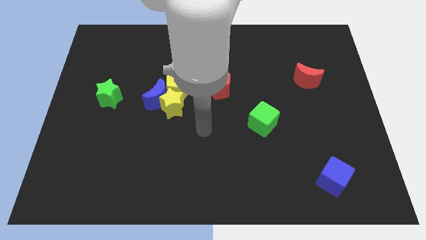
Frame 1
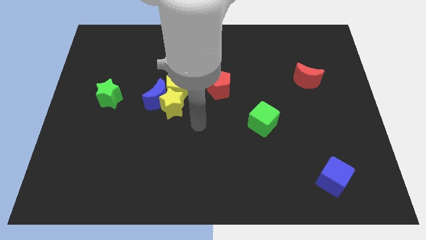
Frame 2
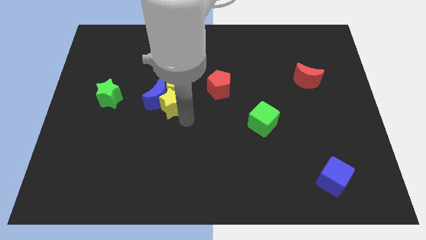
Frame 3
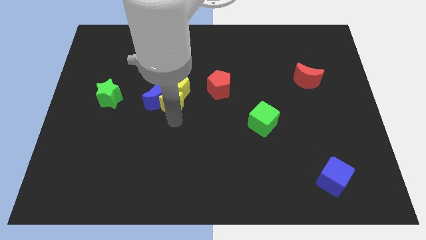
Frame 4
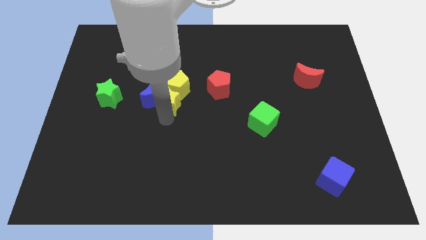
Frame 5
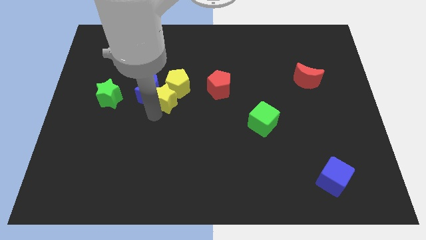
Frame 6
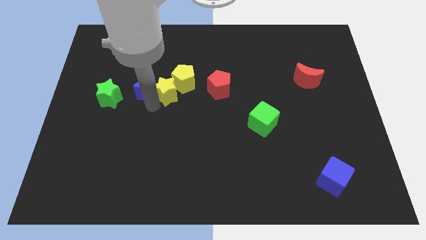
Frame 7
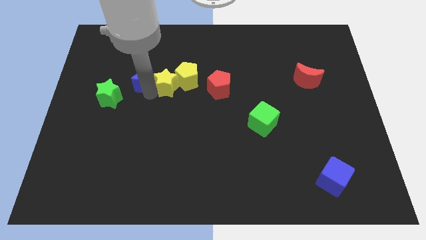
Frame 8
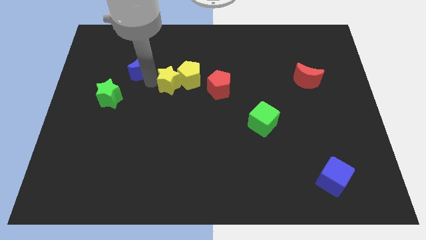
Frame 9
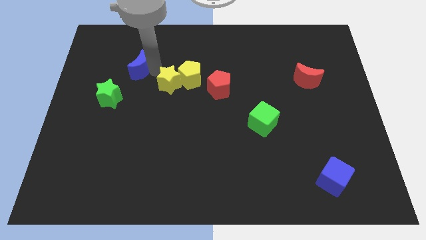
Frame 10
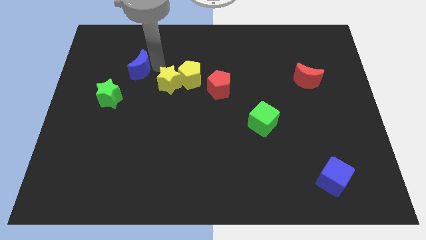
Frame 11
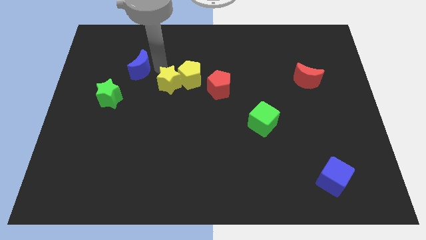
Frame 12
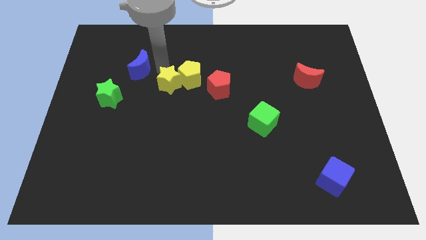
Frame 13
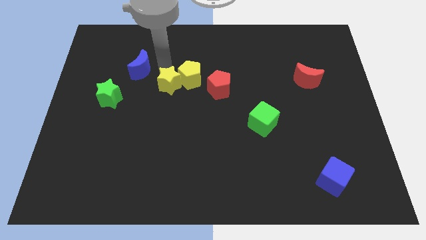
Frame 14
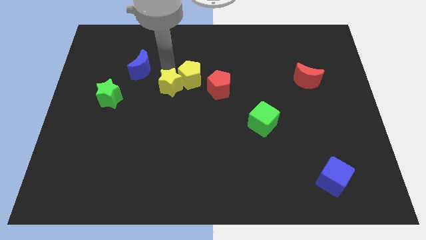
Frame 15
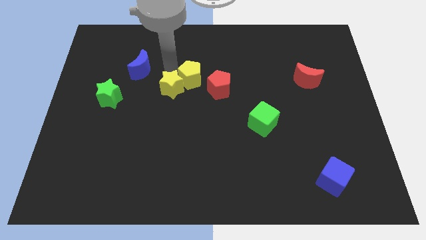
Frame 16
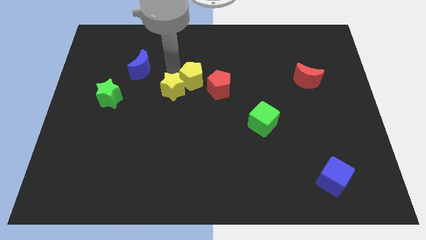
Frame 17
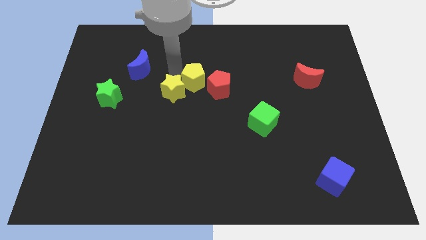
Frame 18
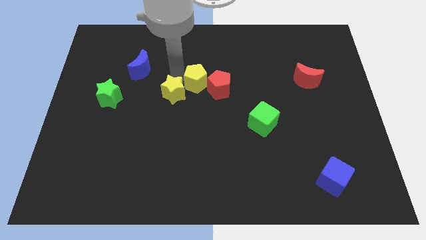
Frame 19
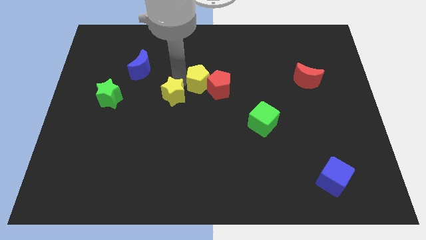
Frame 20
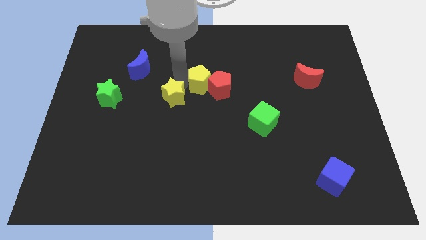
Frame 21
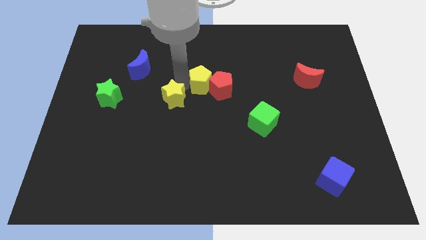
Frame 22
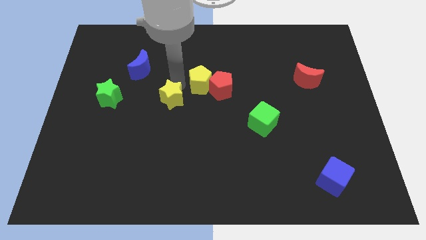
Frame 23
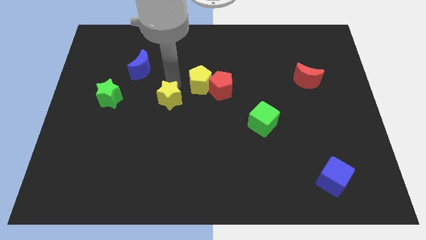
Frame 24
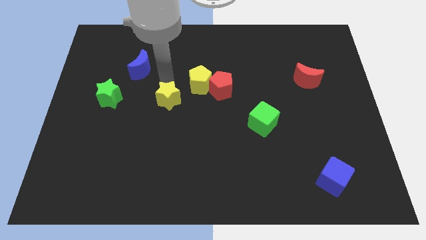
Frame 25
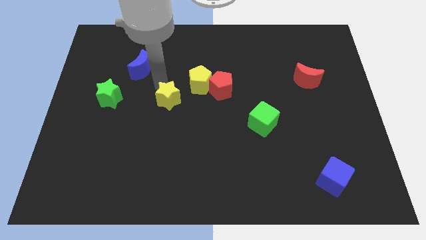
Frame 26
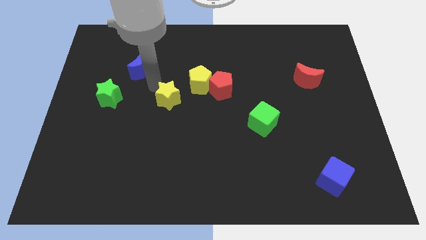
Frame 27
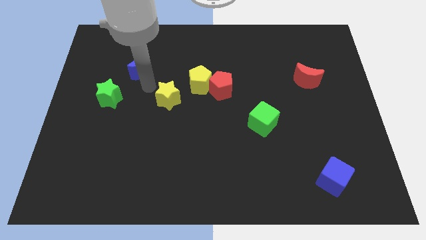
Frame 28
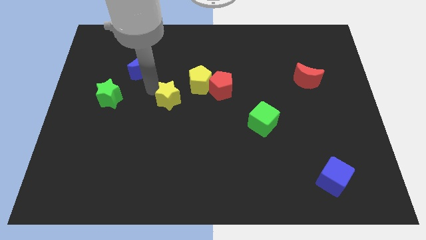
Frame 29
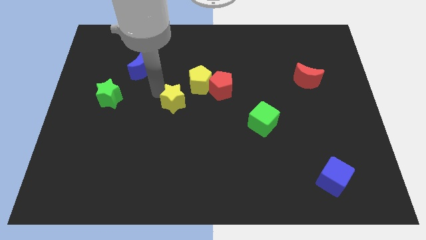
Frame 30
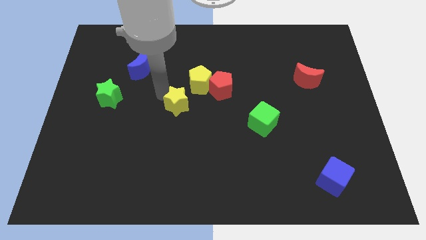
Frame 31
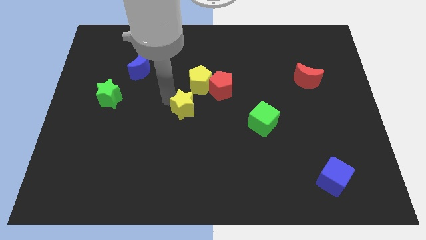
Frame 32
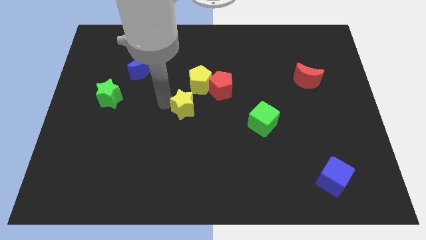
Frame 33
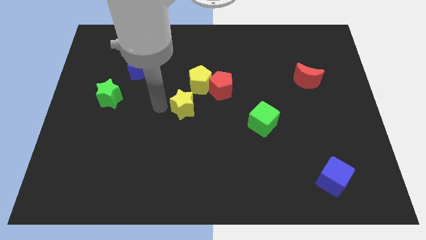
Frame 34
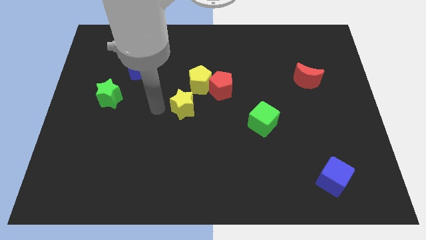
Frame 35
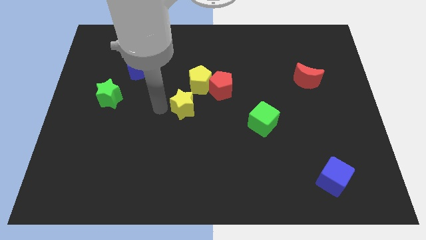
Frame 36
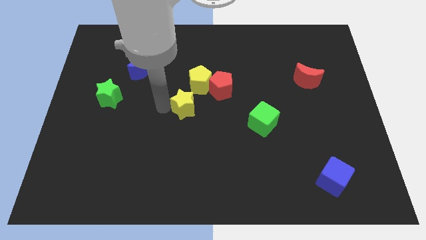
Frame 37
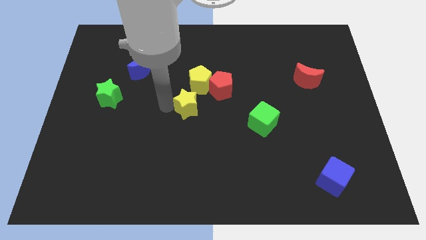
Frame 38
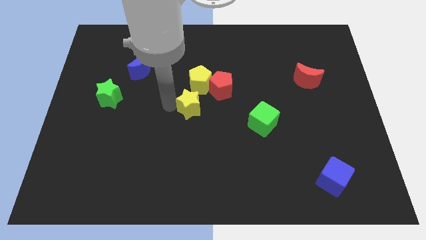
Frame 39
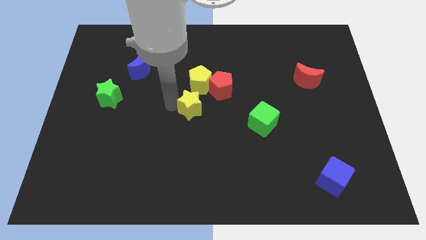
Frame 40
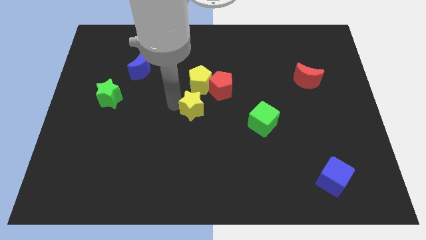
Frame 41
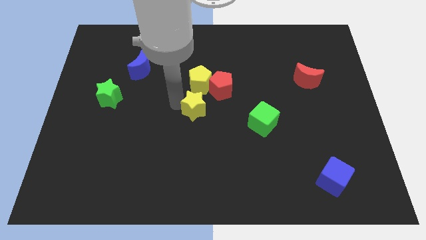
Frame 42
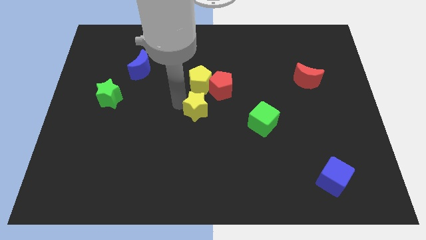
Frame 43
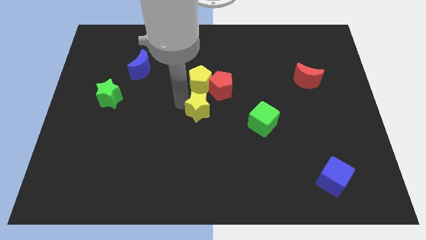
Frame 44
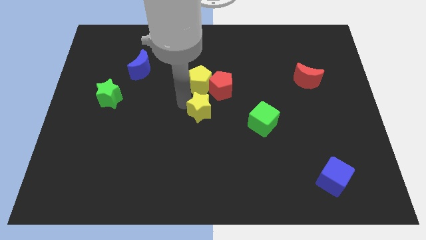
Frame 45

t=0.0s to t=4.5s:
push the yellow star right a bit

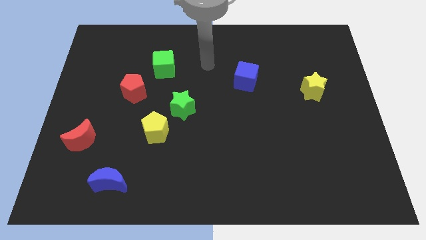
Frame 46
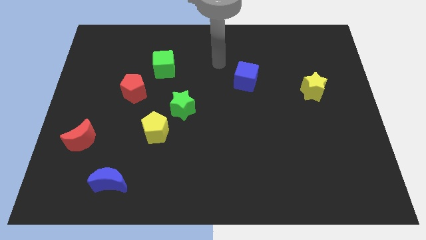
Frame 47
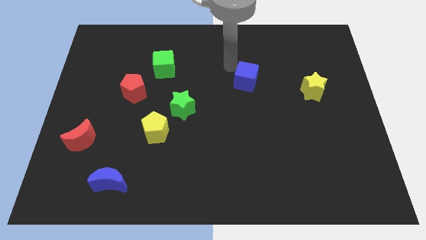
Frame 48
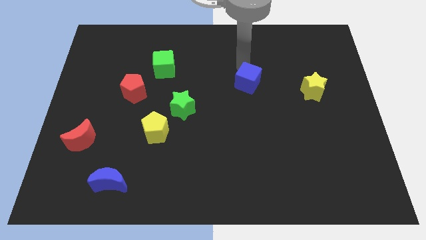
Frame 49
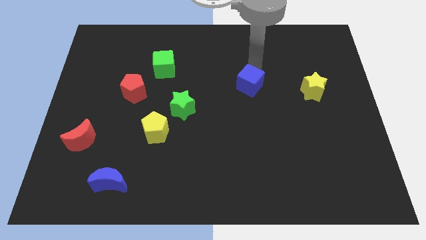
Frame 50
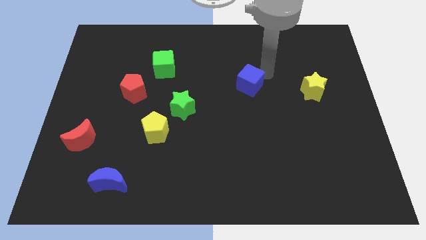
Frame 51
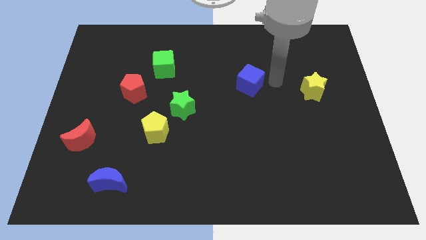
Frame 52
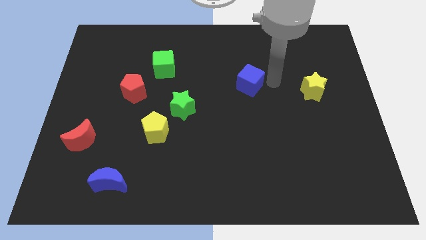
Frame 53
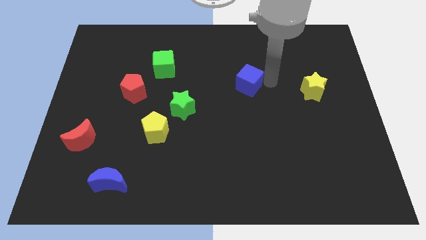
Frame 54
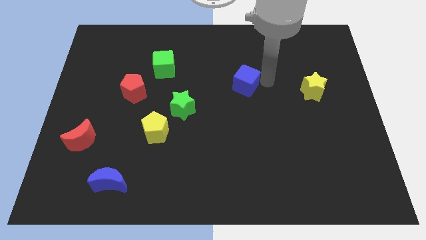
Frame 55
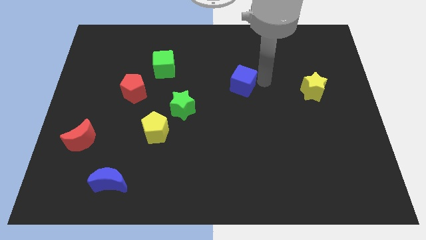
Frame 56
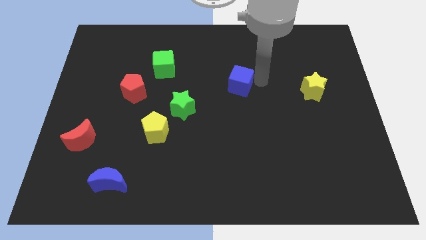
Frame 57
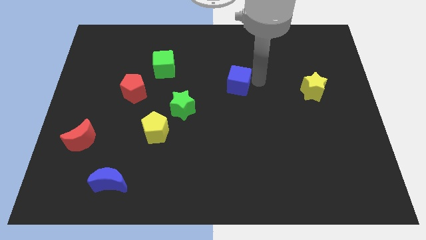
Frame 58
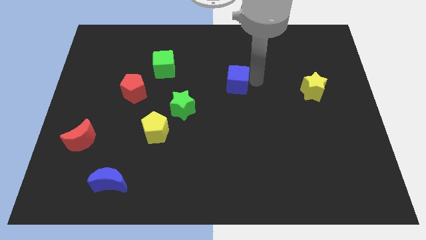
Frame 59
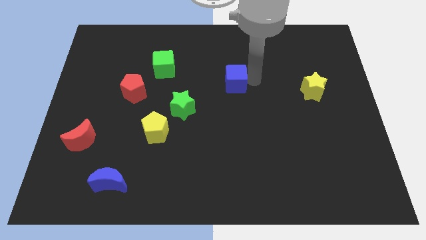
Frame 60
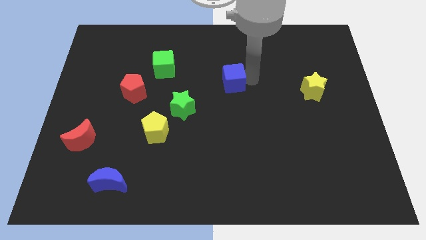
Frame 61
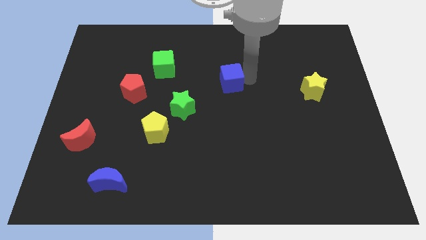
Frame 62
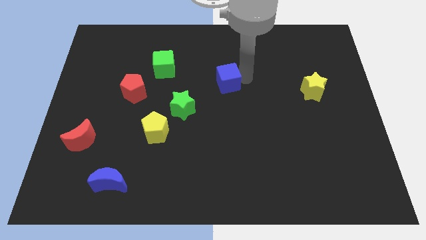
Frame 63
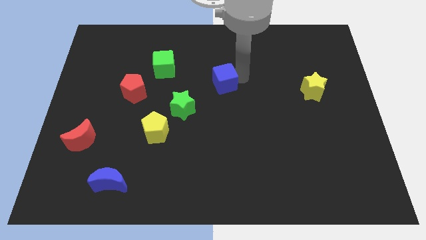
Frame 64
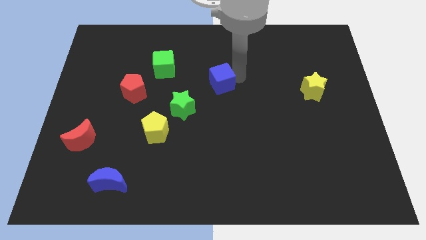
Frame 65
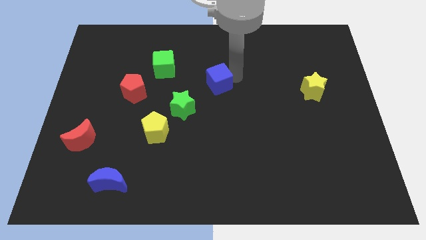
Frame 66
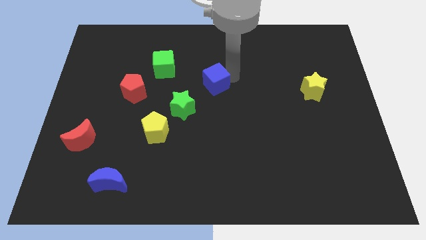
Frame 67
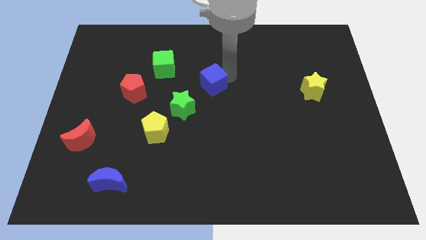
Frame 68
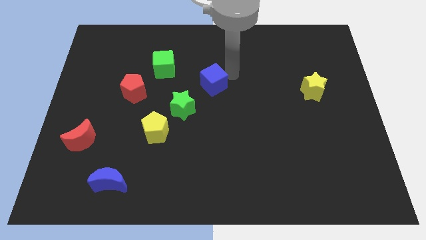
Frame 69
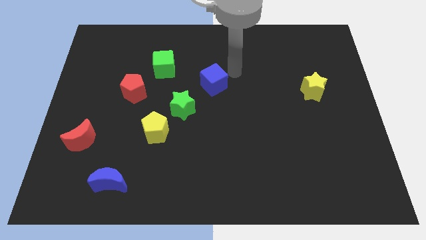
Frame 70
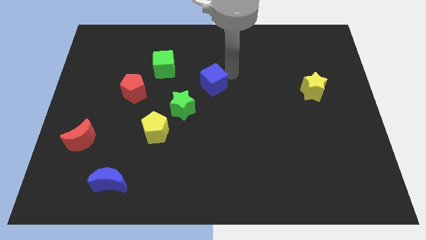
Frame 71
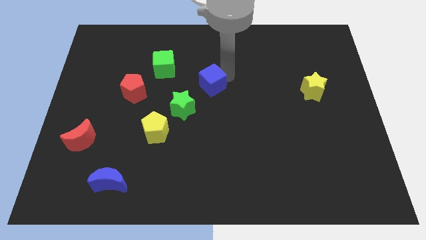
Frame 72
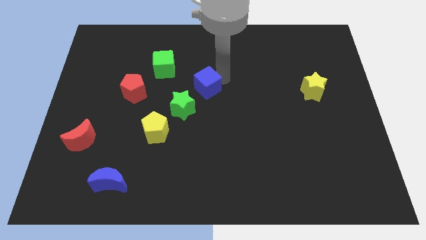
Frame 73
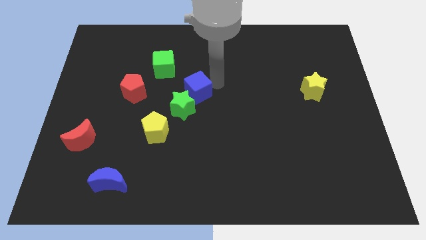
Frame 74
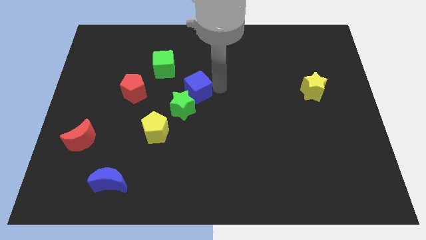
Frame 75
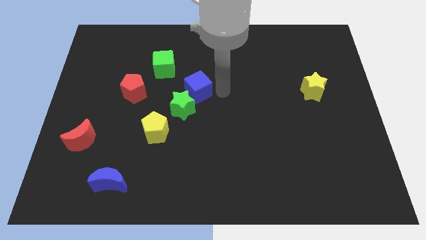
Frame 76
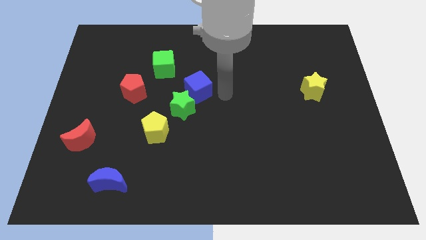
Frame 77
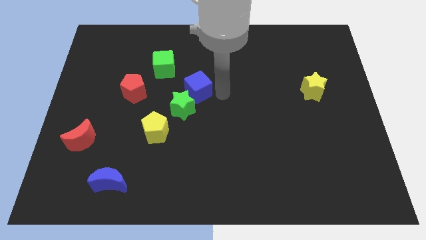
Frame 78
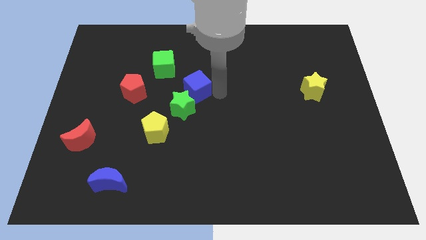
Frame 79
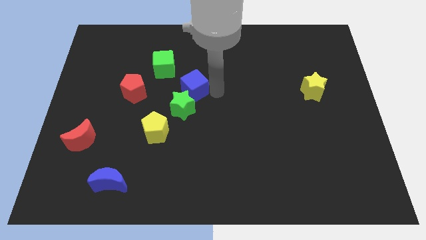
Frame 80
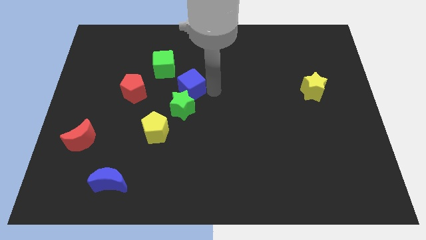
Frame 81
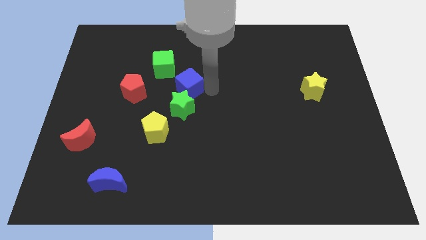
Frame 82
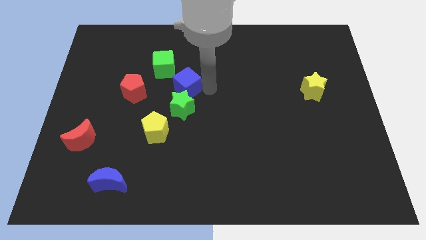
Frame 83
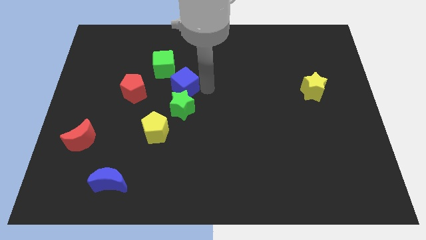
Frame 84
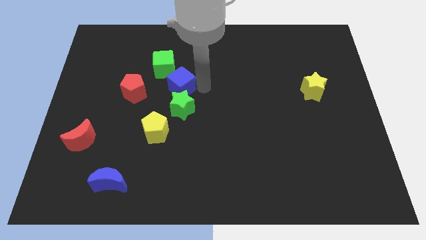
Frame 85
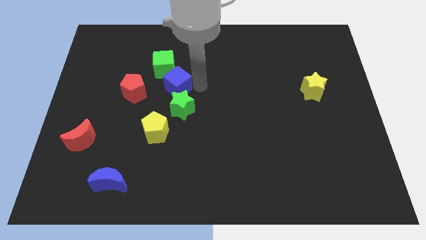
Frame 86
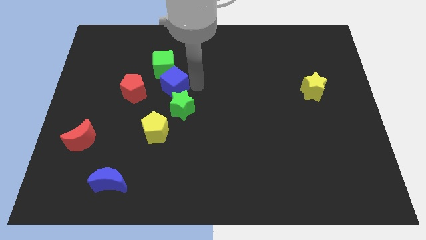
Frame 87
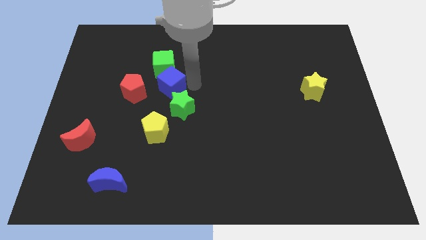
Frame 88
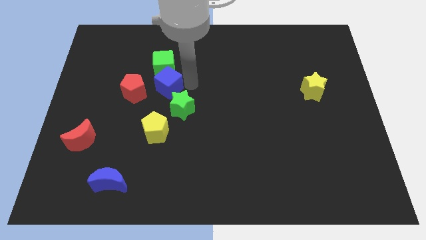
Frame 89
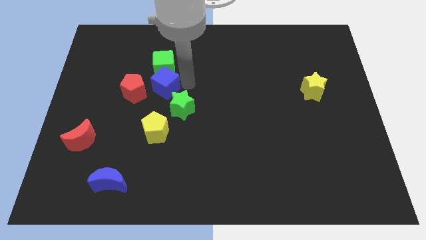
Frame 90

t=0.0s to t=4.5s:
move the blue cube left
